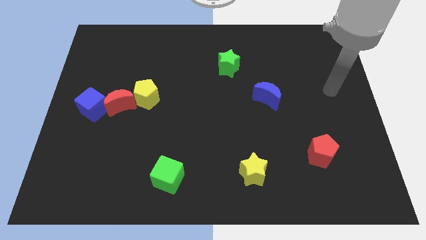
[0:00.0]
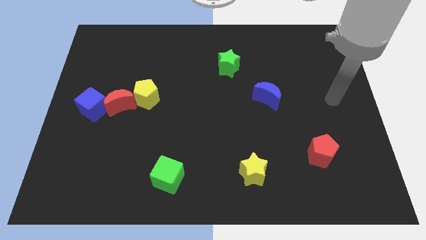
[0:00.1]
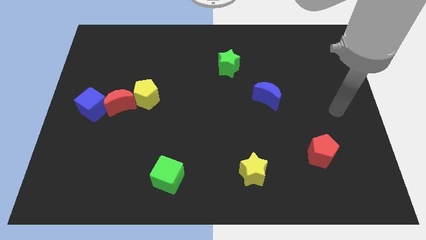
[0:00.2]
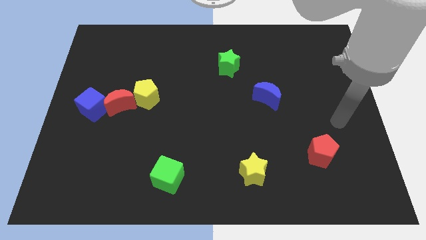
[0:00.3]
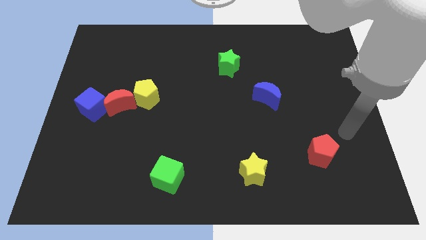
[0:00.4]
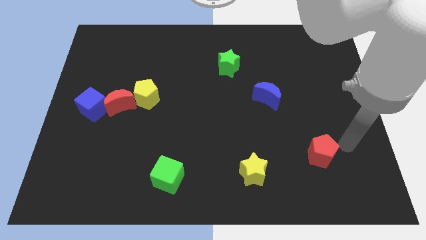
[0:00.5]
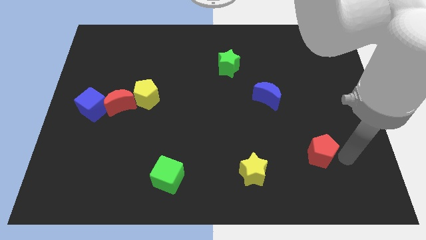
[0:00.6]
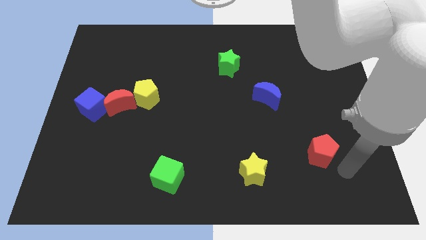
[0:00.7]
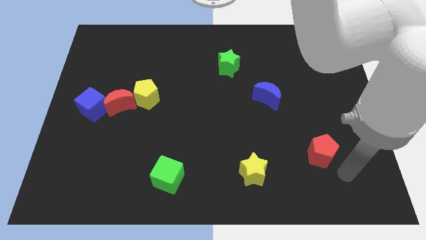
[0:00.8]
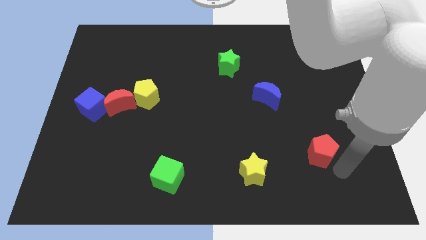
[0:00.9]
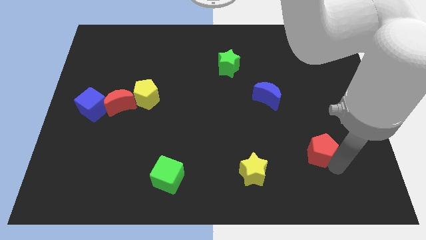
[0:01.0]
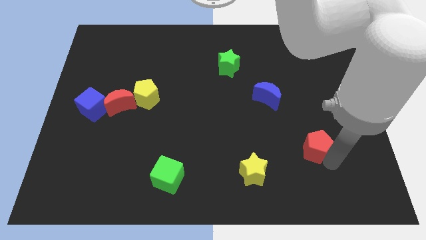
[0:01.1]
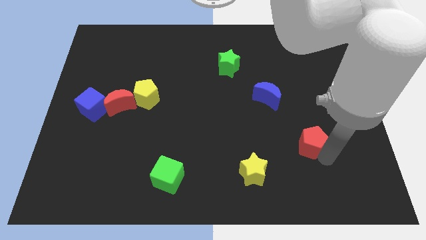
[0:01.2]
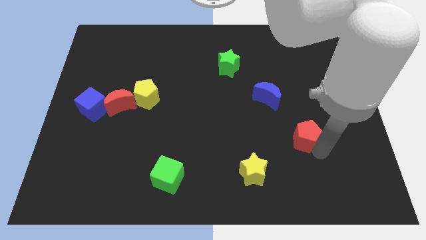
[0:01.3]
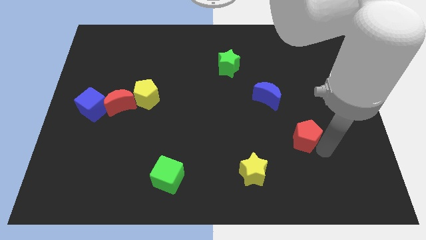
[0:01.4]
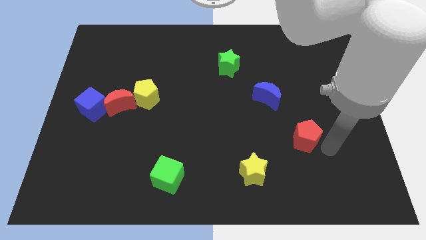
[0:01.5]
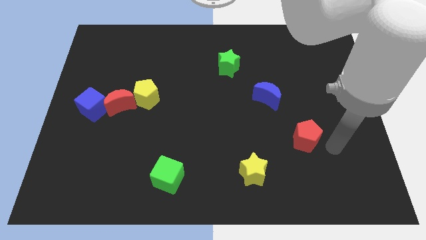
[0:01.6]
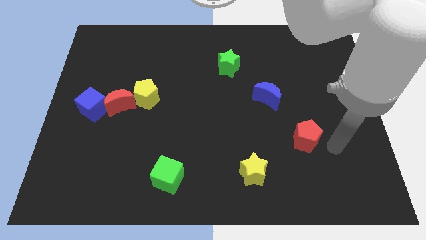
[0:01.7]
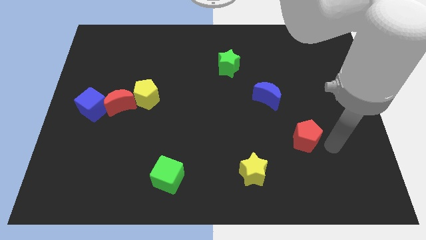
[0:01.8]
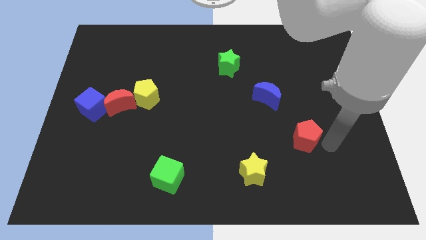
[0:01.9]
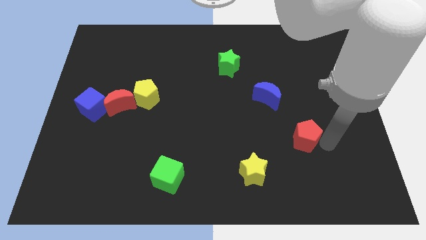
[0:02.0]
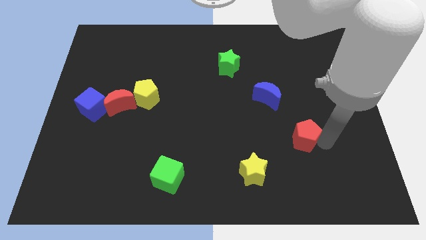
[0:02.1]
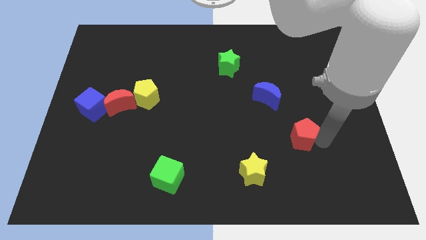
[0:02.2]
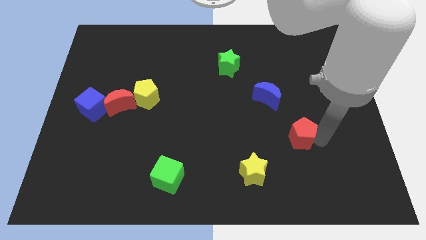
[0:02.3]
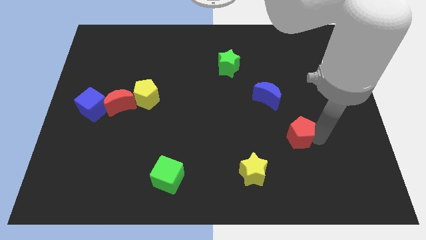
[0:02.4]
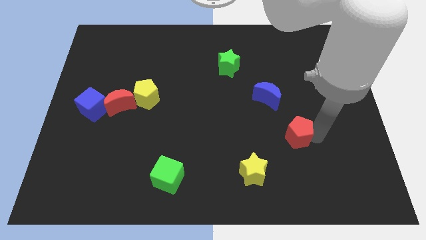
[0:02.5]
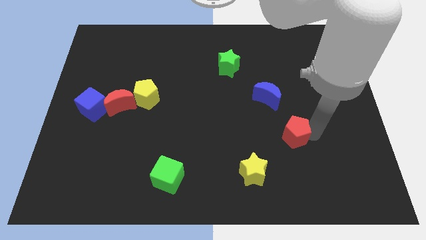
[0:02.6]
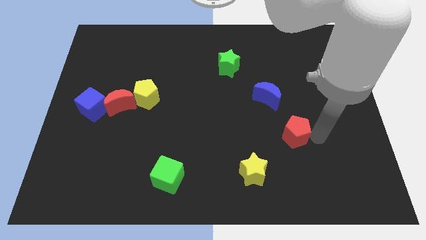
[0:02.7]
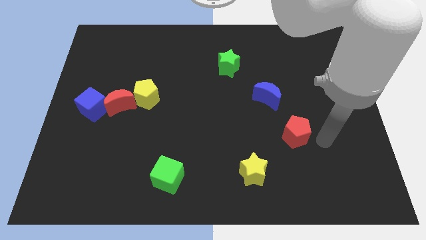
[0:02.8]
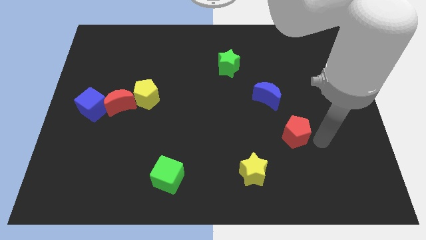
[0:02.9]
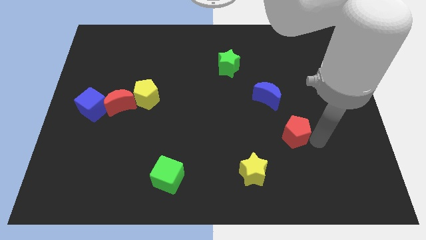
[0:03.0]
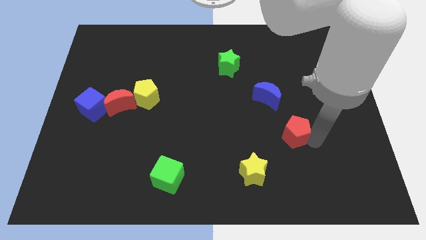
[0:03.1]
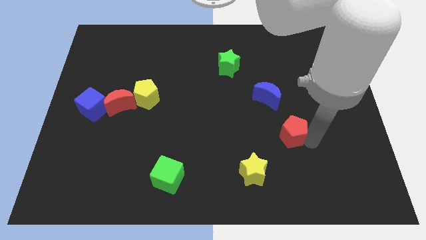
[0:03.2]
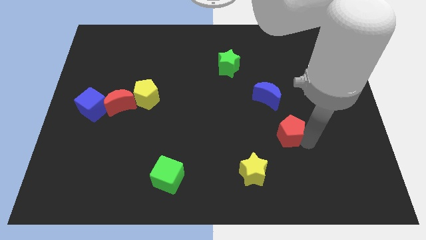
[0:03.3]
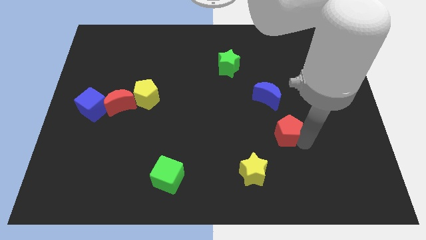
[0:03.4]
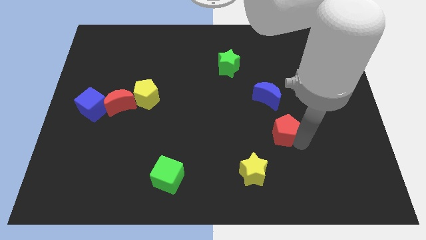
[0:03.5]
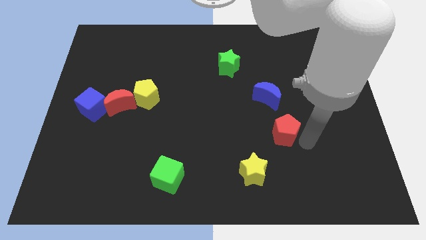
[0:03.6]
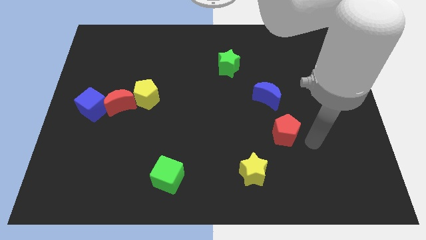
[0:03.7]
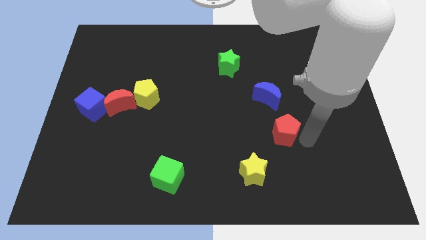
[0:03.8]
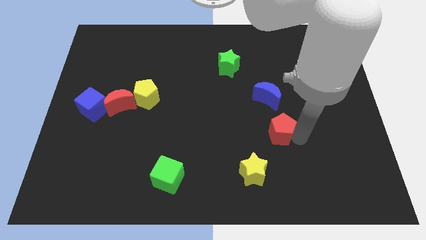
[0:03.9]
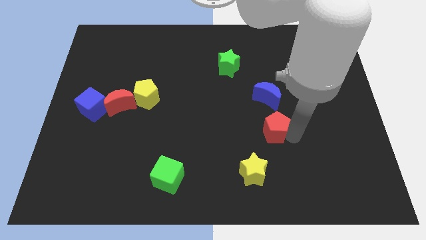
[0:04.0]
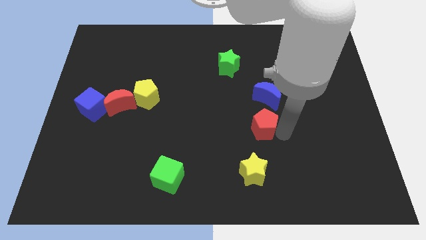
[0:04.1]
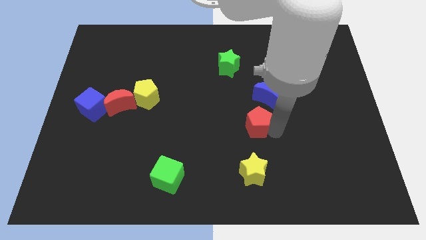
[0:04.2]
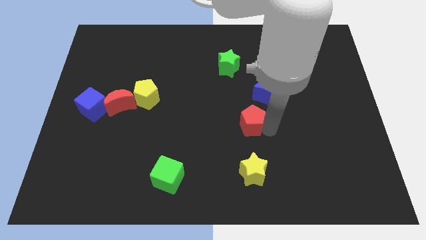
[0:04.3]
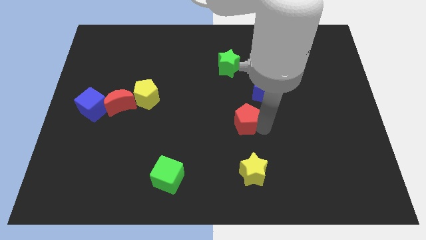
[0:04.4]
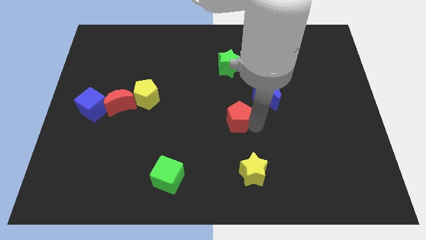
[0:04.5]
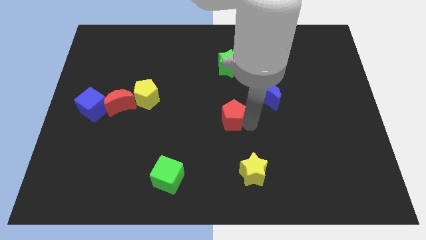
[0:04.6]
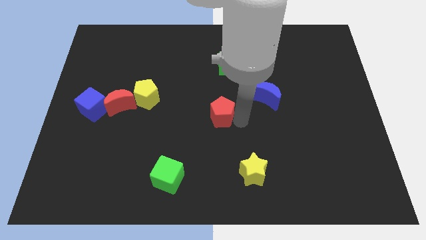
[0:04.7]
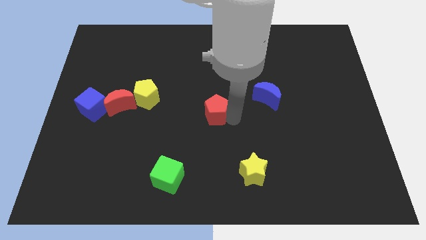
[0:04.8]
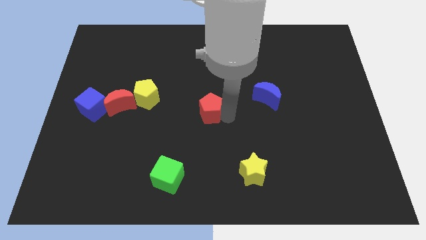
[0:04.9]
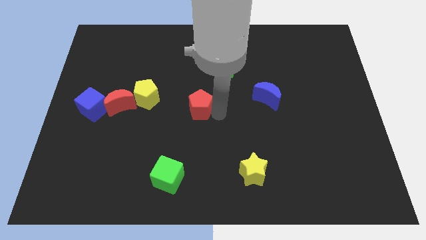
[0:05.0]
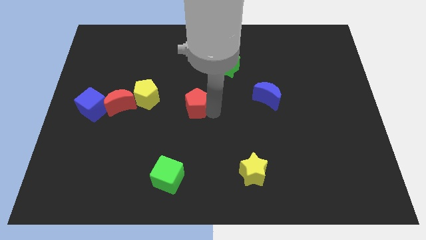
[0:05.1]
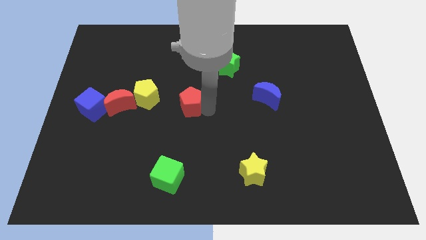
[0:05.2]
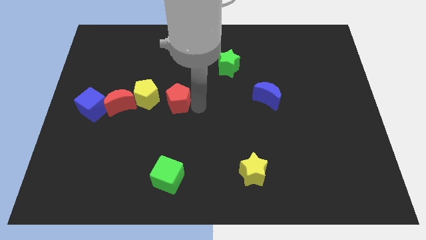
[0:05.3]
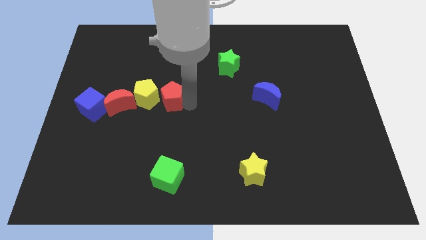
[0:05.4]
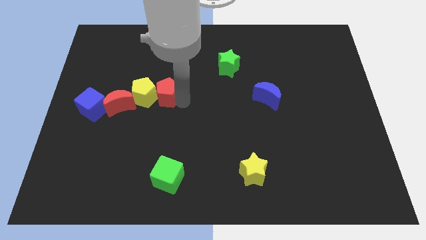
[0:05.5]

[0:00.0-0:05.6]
slide the red pentagon towards the yellow pentagon

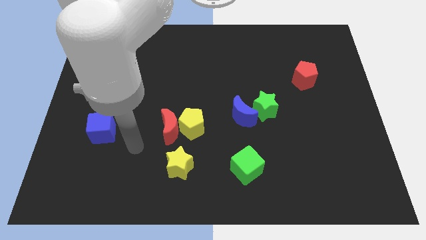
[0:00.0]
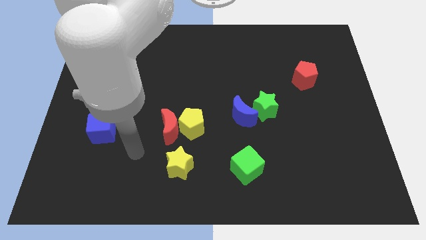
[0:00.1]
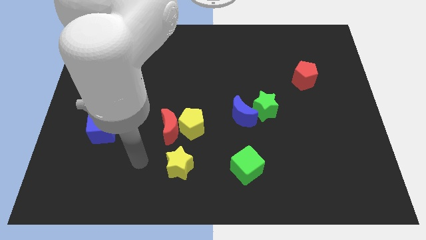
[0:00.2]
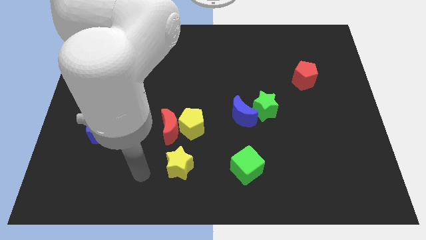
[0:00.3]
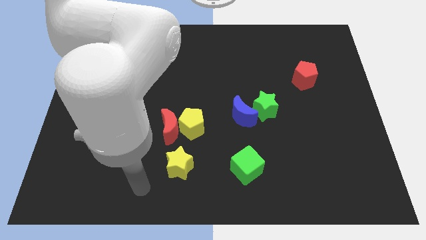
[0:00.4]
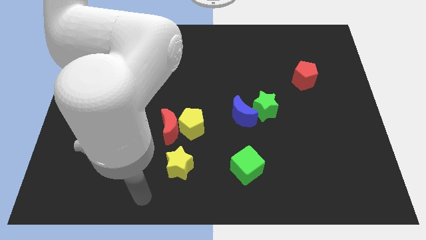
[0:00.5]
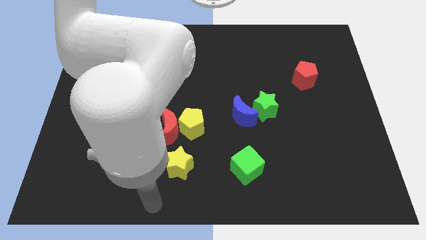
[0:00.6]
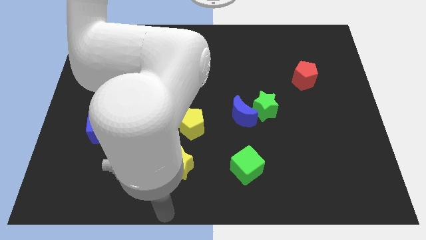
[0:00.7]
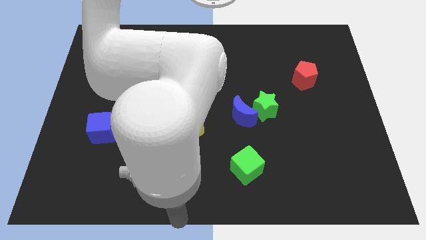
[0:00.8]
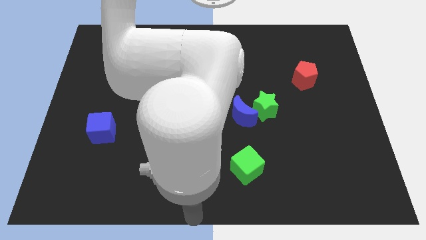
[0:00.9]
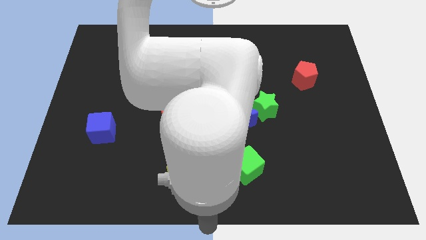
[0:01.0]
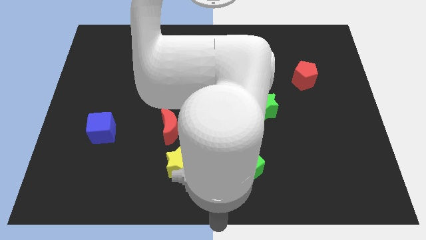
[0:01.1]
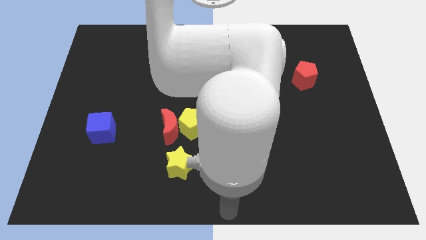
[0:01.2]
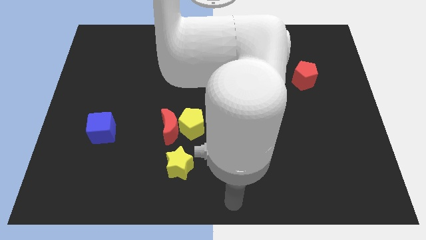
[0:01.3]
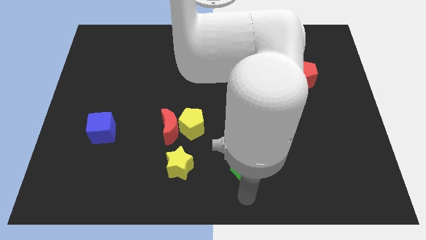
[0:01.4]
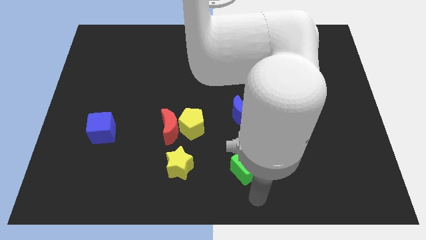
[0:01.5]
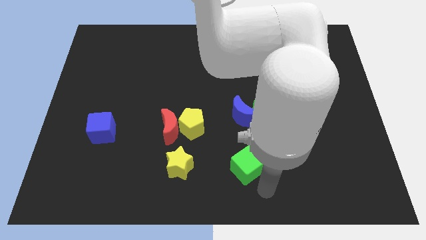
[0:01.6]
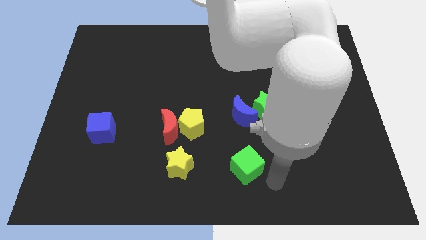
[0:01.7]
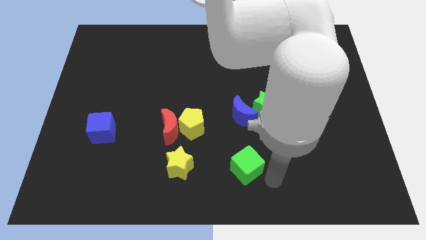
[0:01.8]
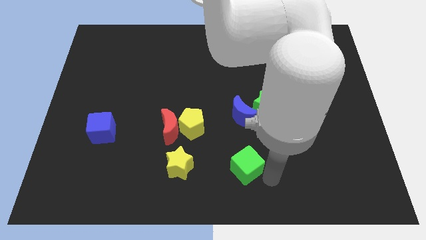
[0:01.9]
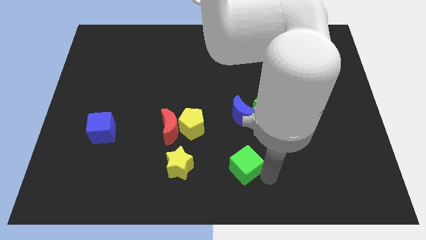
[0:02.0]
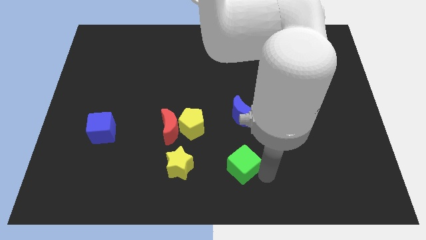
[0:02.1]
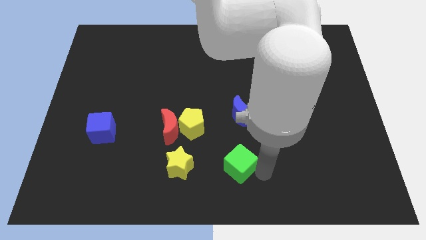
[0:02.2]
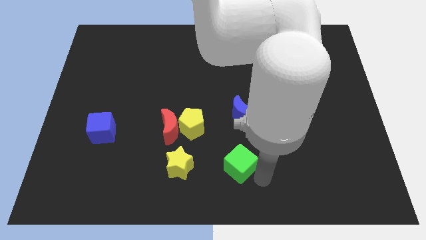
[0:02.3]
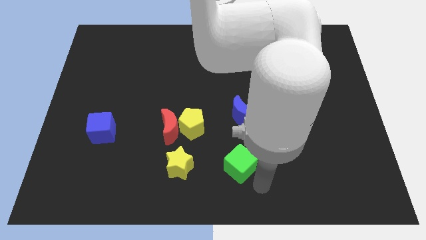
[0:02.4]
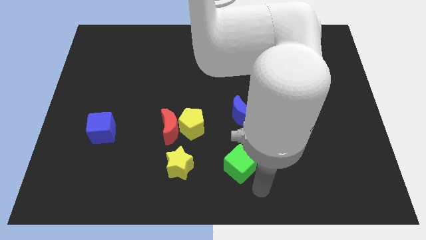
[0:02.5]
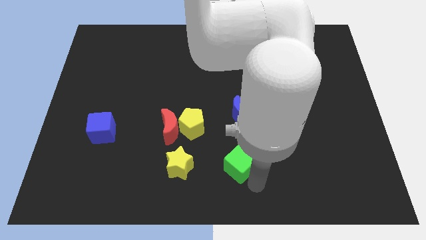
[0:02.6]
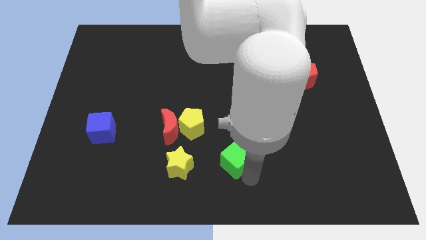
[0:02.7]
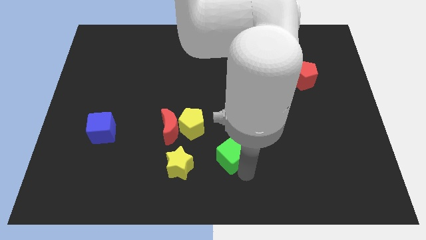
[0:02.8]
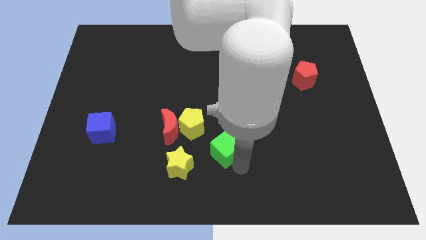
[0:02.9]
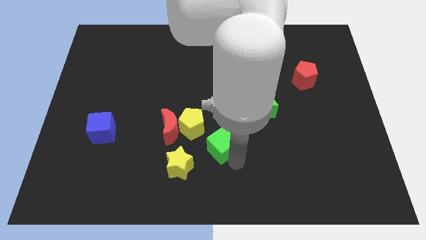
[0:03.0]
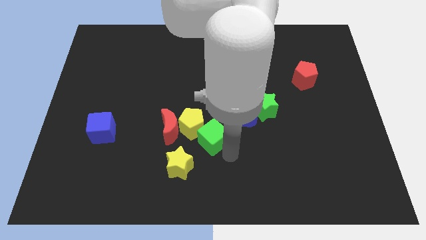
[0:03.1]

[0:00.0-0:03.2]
move the green cube to the yellow pentagon
